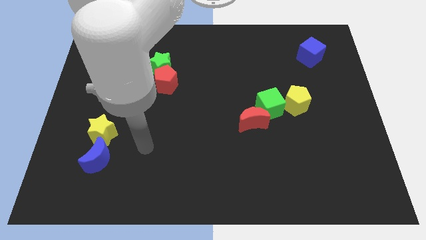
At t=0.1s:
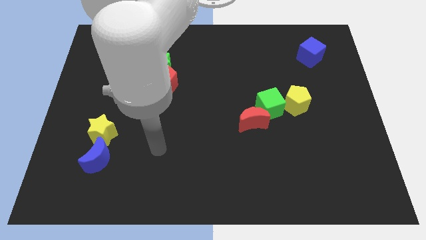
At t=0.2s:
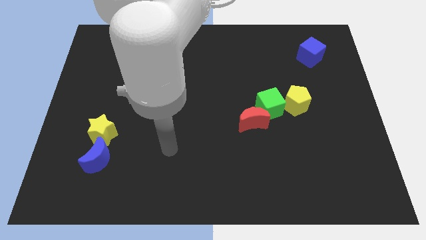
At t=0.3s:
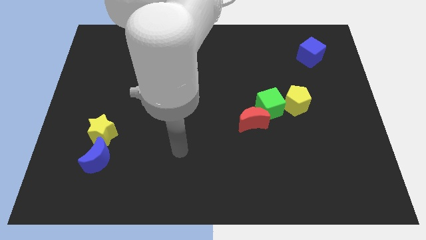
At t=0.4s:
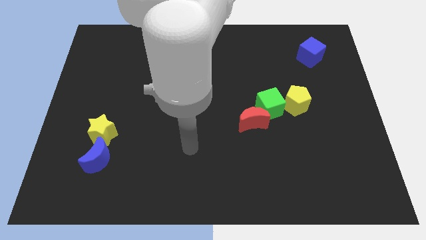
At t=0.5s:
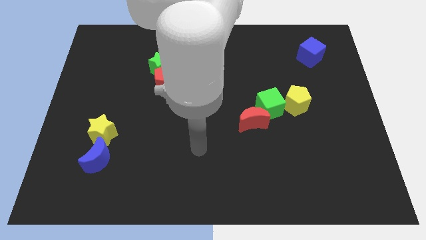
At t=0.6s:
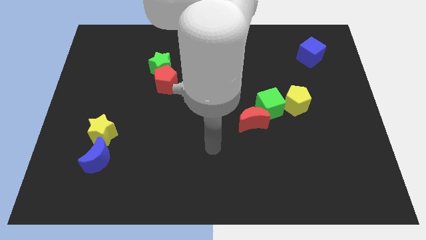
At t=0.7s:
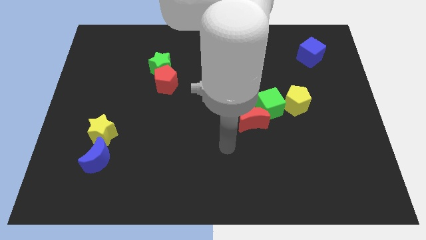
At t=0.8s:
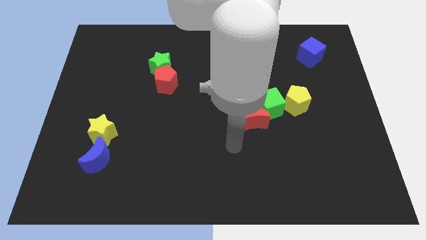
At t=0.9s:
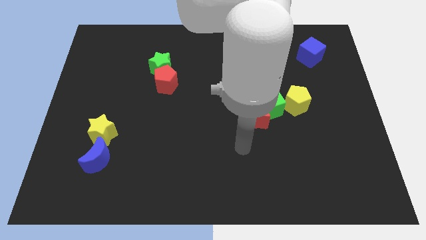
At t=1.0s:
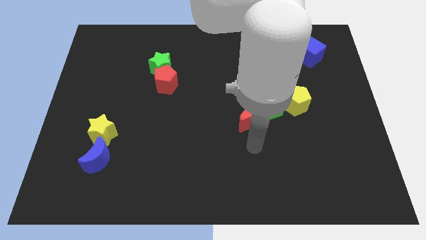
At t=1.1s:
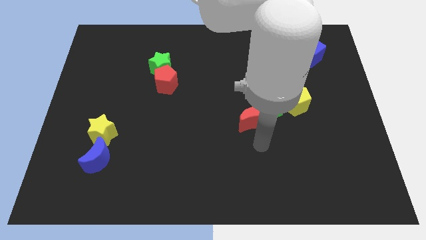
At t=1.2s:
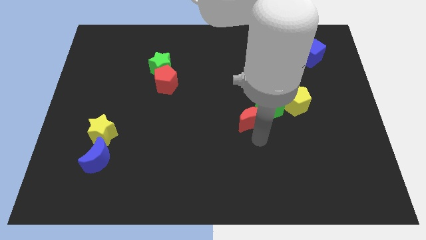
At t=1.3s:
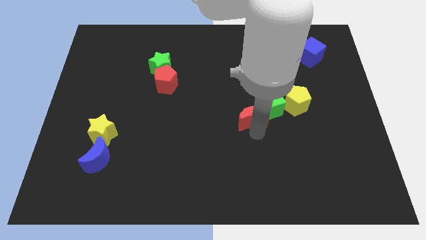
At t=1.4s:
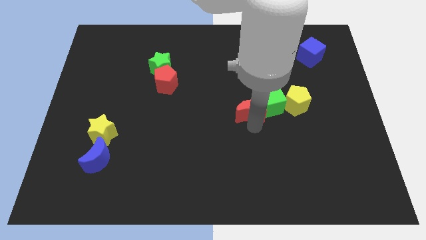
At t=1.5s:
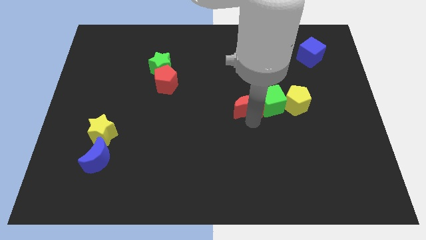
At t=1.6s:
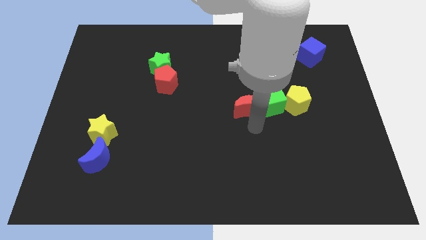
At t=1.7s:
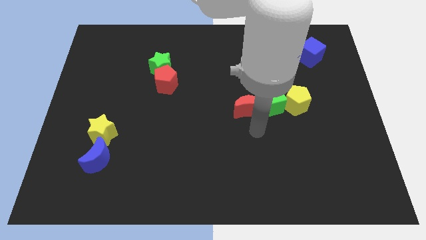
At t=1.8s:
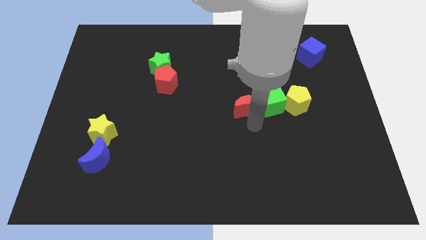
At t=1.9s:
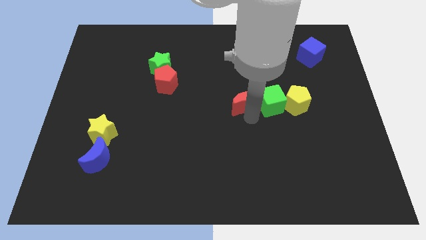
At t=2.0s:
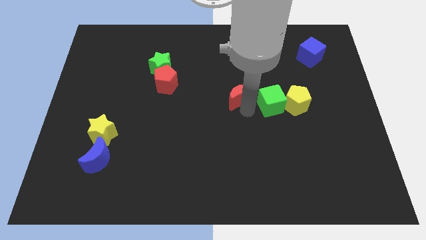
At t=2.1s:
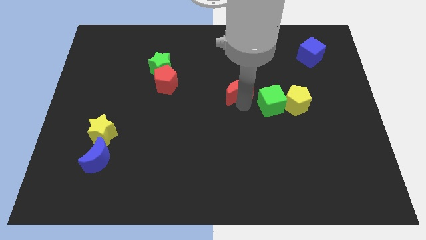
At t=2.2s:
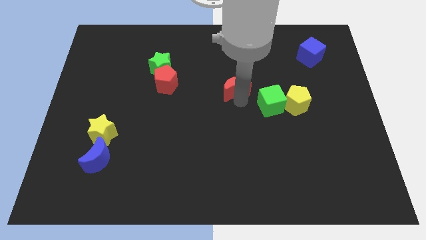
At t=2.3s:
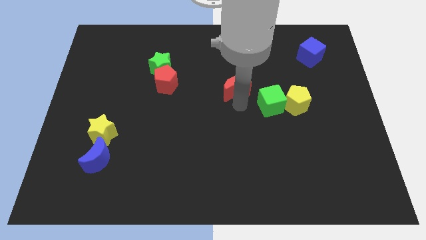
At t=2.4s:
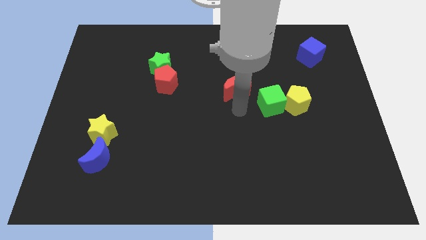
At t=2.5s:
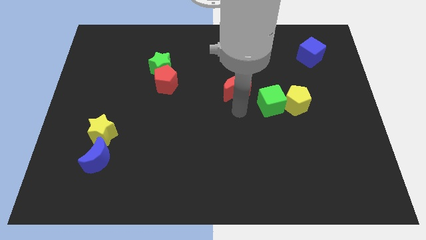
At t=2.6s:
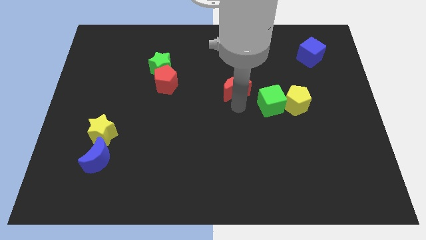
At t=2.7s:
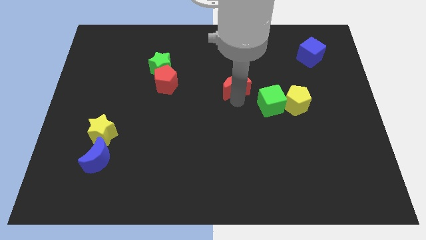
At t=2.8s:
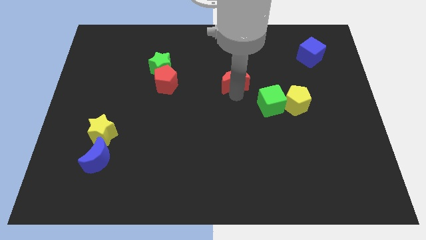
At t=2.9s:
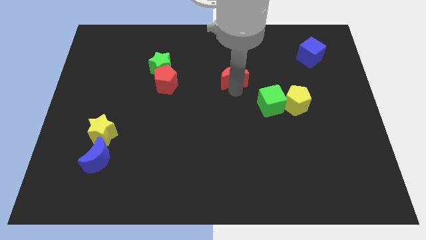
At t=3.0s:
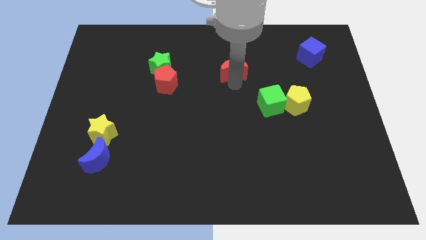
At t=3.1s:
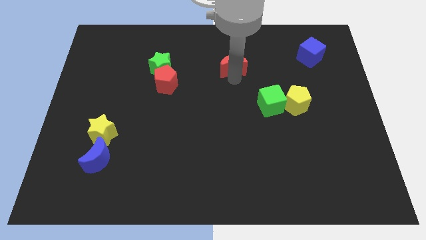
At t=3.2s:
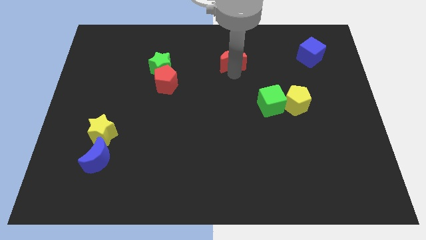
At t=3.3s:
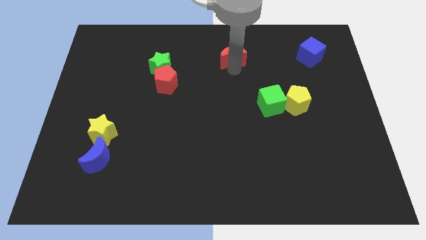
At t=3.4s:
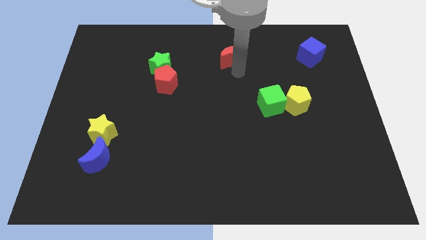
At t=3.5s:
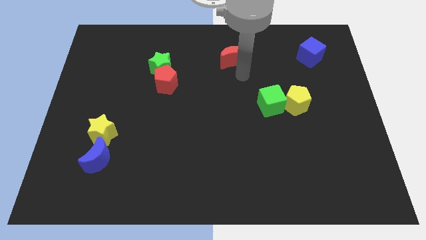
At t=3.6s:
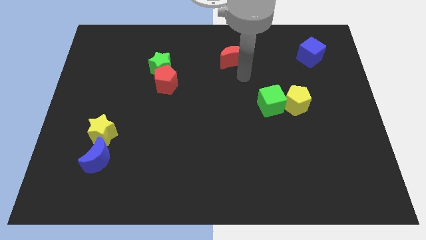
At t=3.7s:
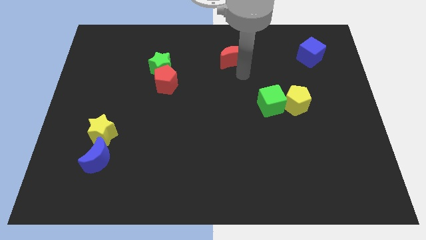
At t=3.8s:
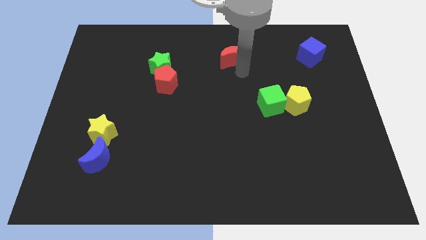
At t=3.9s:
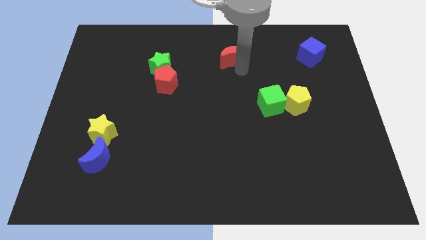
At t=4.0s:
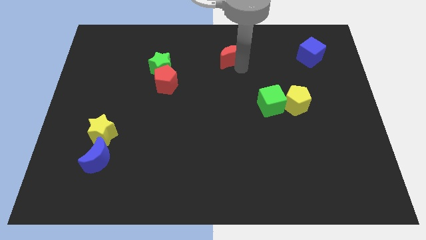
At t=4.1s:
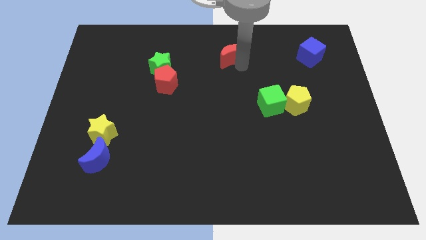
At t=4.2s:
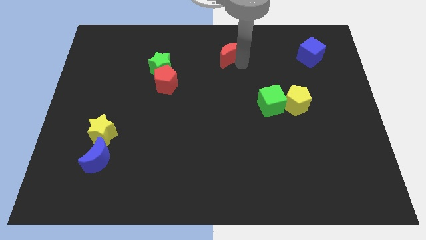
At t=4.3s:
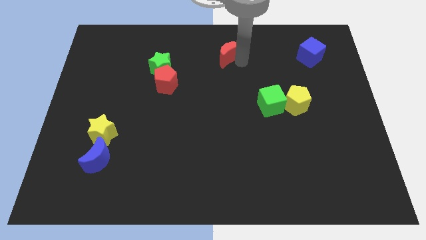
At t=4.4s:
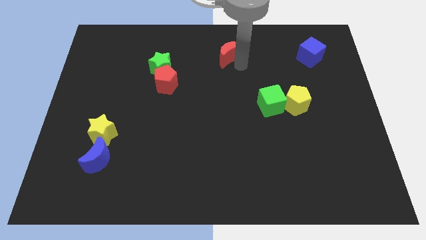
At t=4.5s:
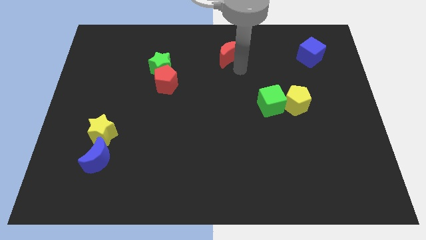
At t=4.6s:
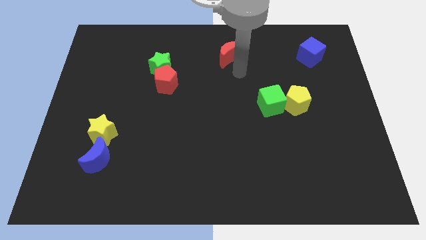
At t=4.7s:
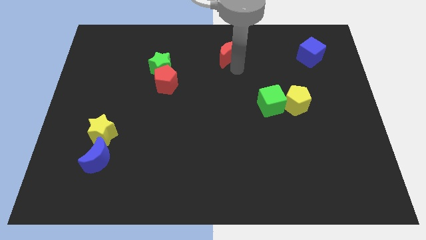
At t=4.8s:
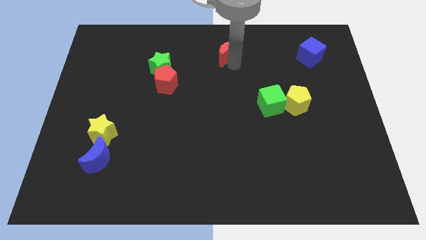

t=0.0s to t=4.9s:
move the red moon to the top

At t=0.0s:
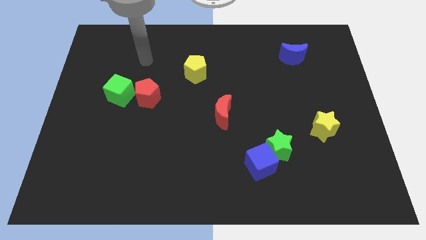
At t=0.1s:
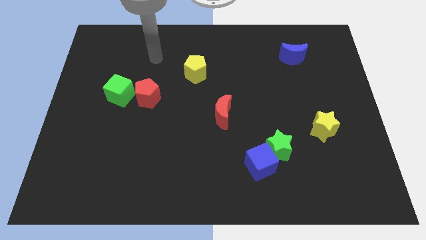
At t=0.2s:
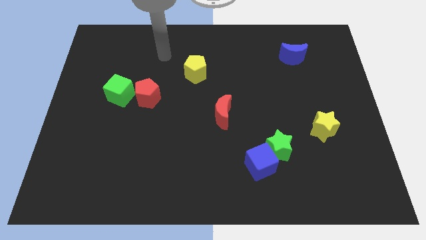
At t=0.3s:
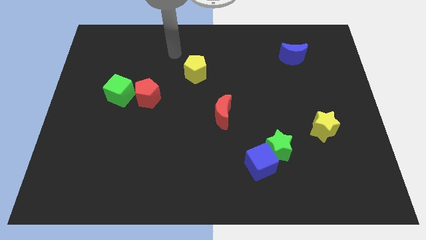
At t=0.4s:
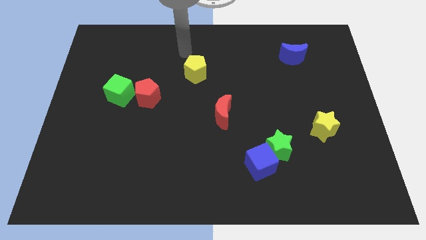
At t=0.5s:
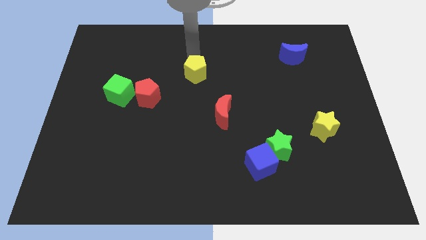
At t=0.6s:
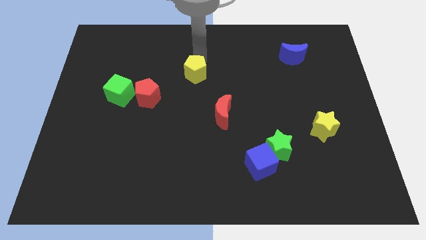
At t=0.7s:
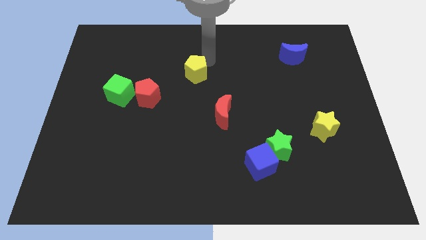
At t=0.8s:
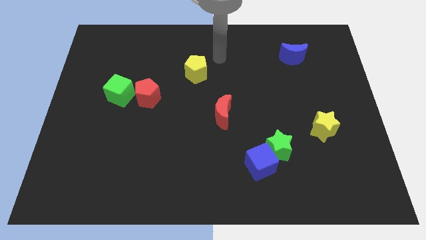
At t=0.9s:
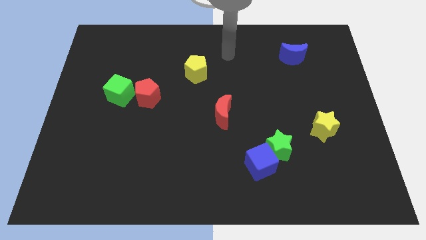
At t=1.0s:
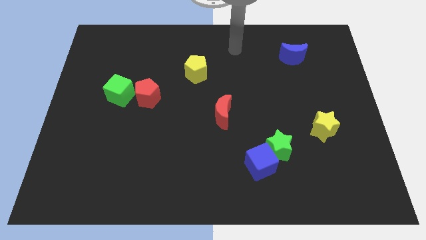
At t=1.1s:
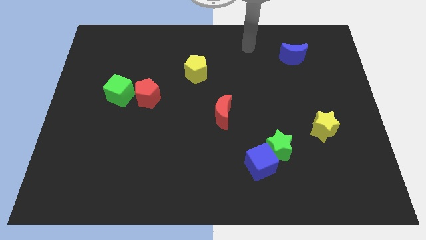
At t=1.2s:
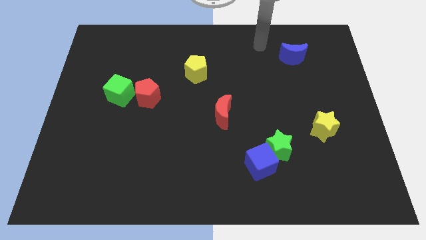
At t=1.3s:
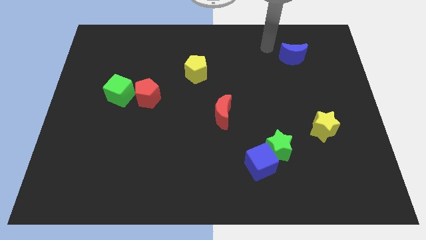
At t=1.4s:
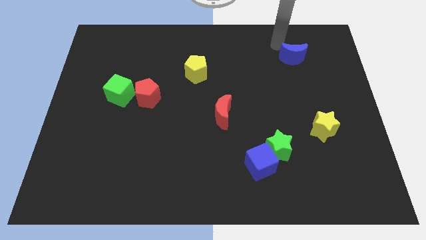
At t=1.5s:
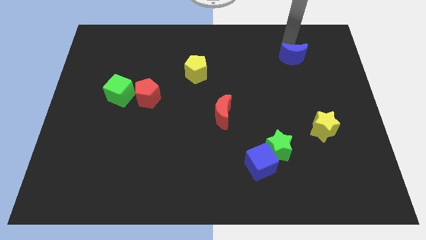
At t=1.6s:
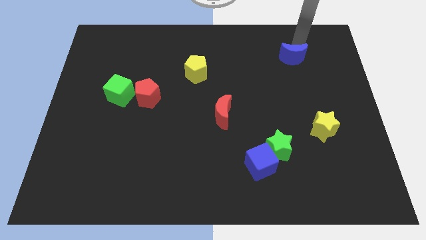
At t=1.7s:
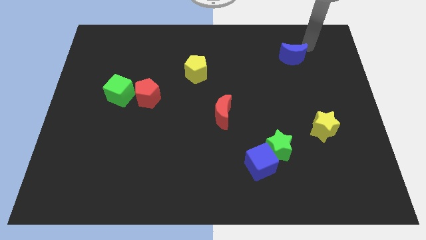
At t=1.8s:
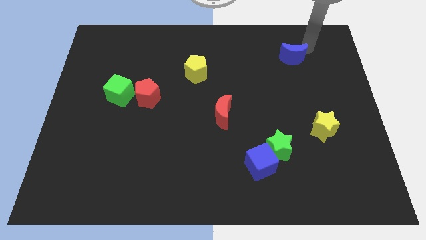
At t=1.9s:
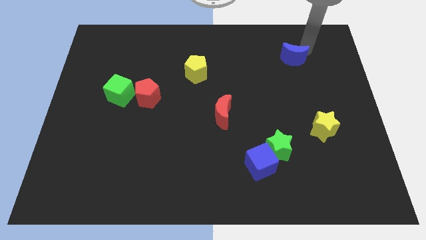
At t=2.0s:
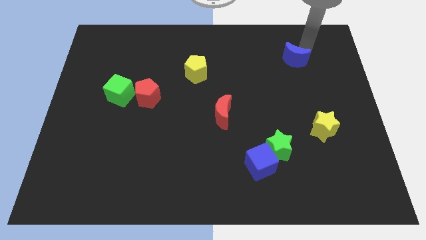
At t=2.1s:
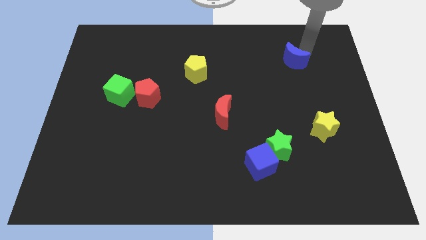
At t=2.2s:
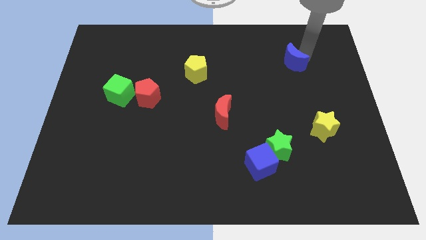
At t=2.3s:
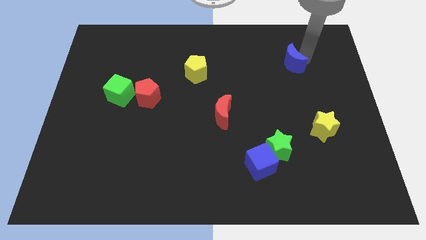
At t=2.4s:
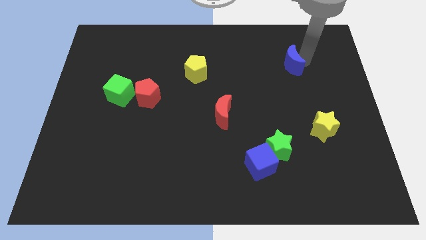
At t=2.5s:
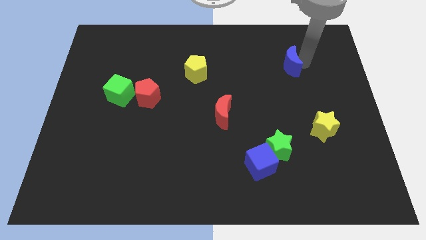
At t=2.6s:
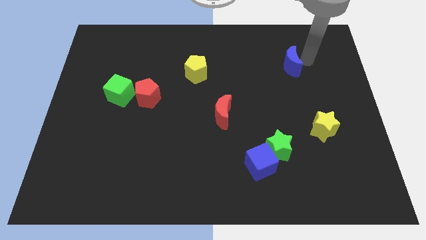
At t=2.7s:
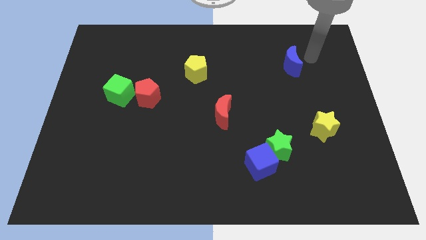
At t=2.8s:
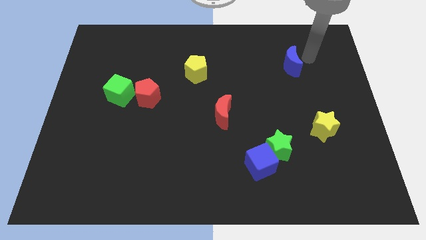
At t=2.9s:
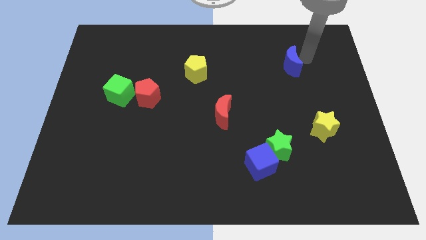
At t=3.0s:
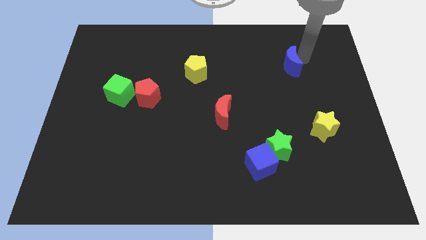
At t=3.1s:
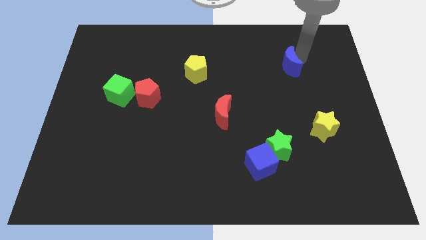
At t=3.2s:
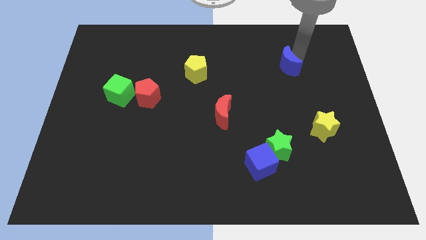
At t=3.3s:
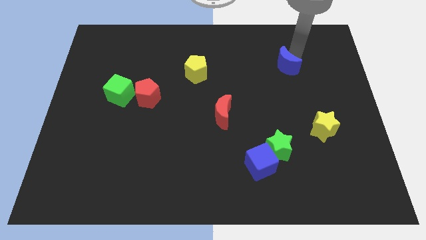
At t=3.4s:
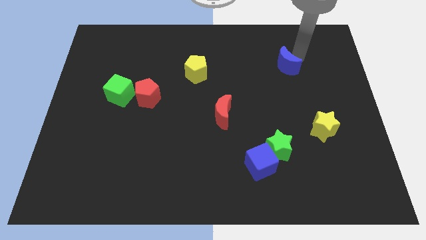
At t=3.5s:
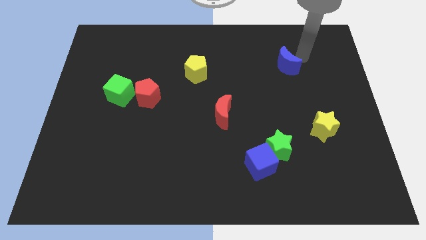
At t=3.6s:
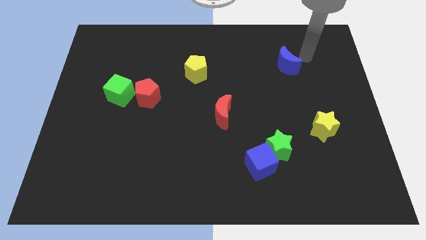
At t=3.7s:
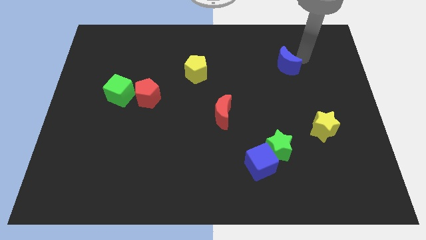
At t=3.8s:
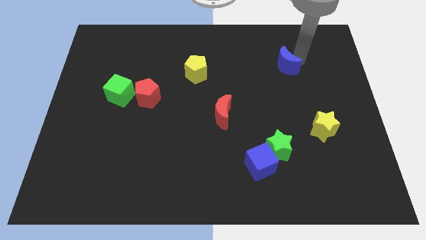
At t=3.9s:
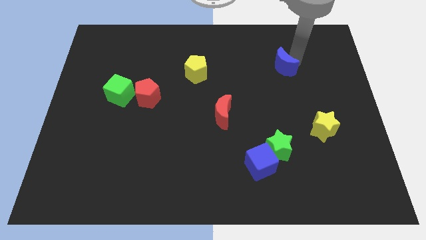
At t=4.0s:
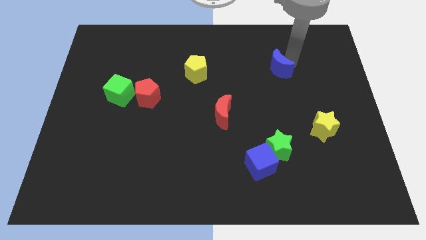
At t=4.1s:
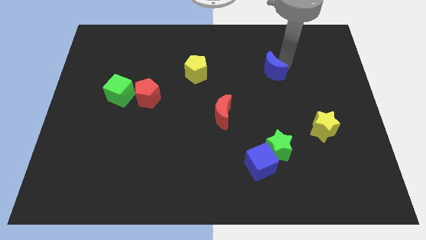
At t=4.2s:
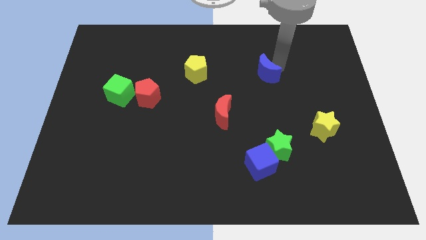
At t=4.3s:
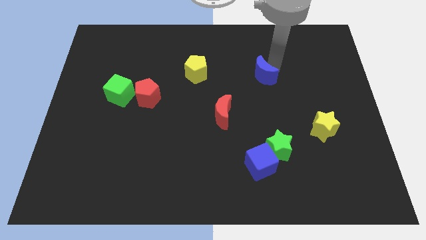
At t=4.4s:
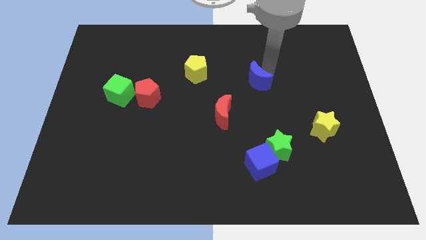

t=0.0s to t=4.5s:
put the blue moon to the center of the board
